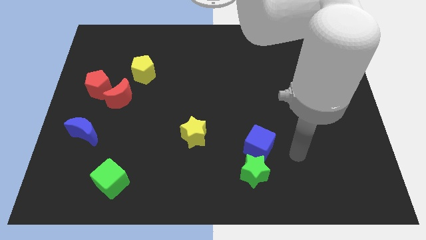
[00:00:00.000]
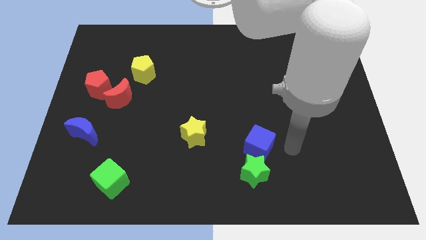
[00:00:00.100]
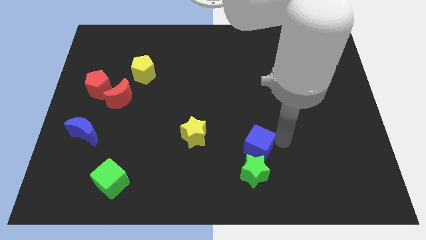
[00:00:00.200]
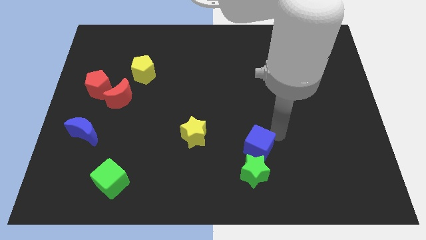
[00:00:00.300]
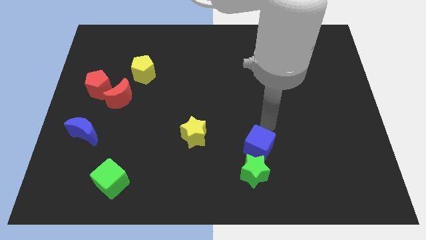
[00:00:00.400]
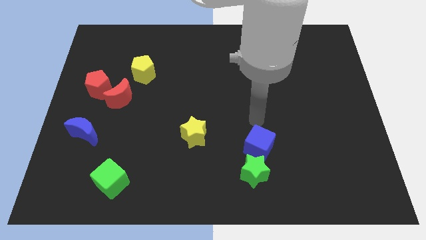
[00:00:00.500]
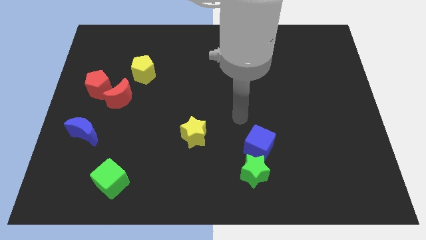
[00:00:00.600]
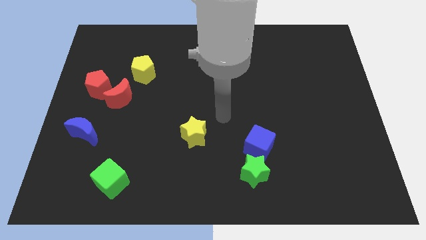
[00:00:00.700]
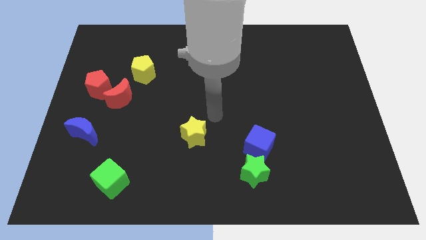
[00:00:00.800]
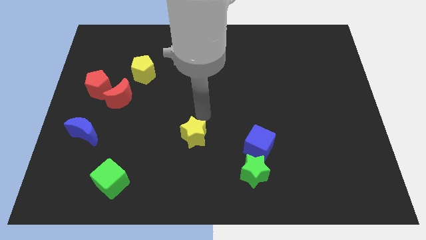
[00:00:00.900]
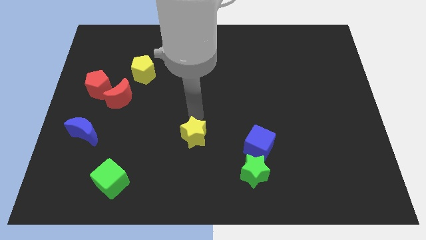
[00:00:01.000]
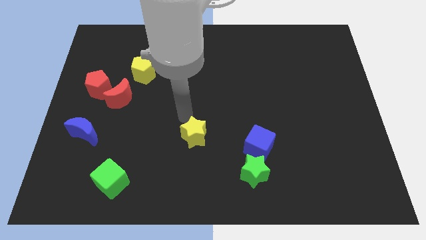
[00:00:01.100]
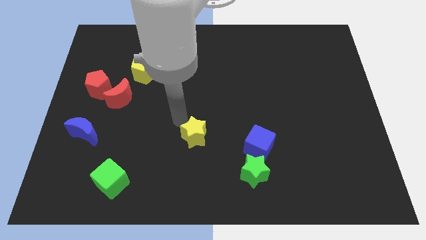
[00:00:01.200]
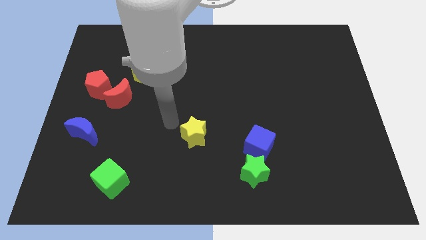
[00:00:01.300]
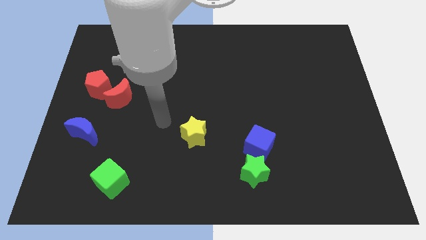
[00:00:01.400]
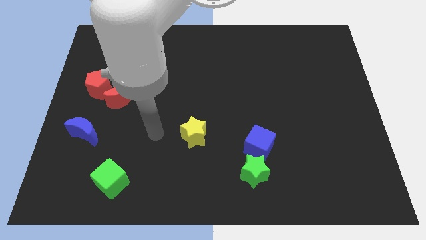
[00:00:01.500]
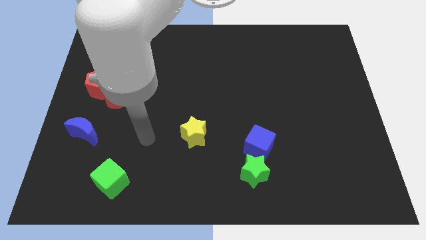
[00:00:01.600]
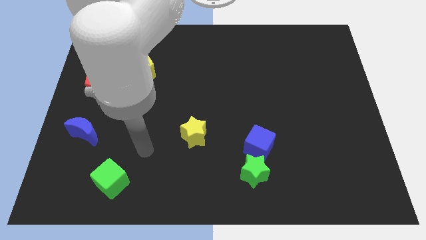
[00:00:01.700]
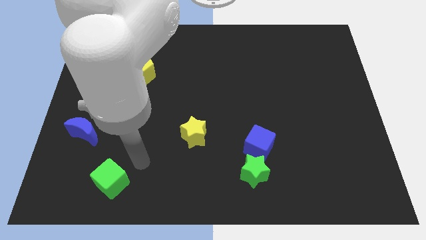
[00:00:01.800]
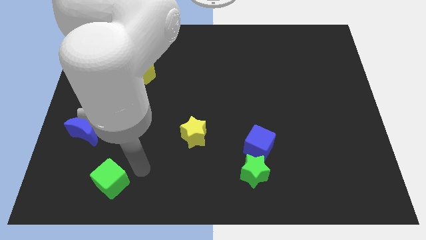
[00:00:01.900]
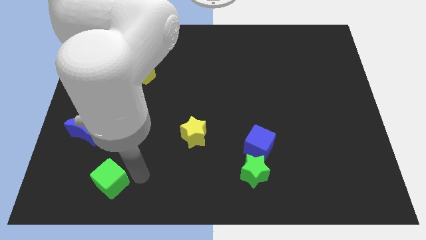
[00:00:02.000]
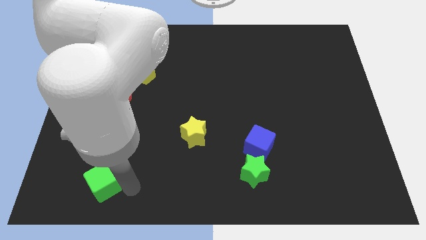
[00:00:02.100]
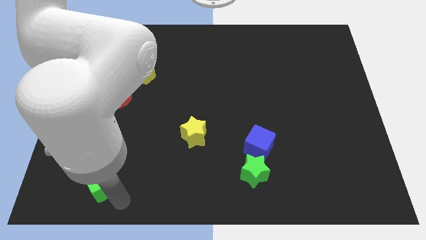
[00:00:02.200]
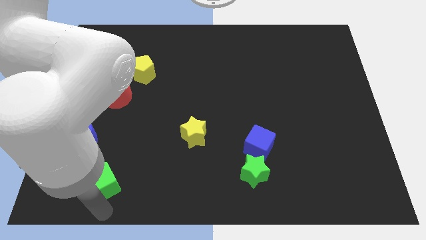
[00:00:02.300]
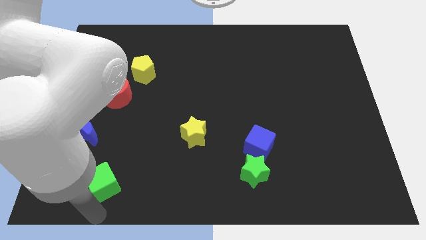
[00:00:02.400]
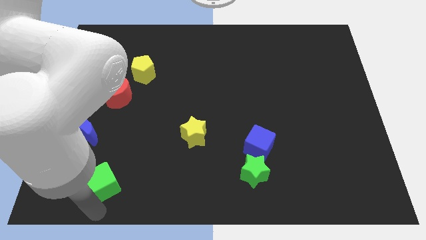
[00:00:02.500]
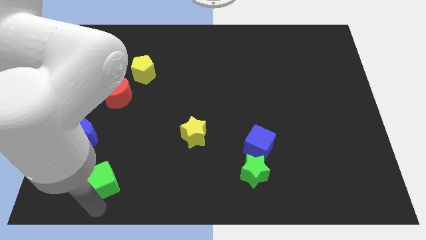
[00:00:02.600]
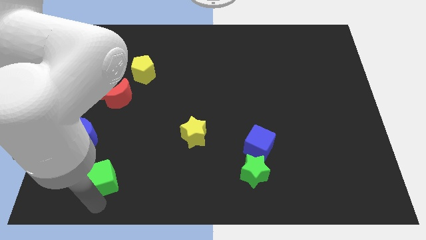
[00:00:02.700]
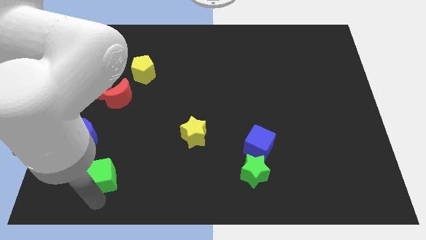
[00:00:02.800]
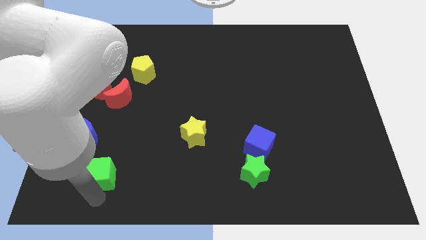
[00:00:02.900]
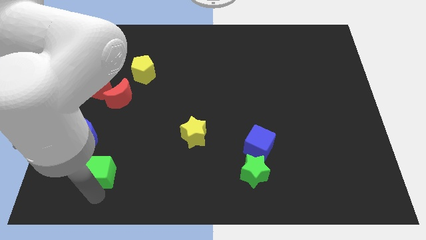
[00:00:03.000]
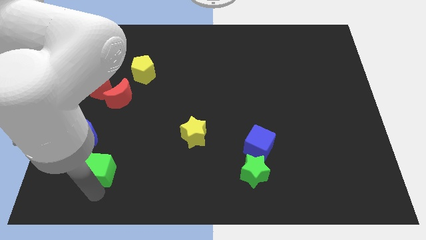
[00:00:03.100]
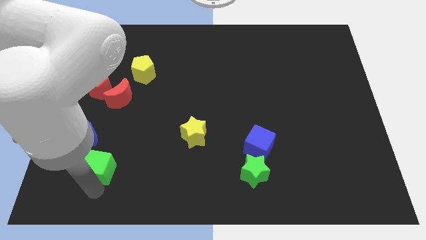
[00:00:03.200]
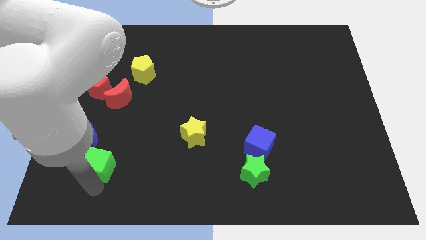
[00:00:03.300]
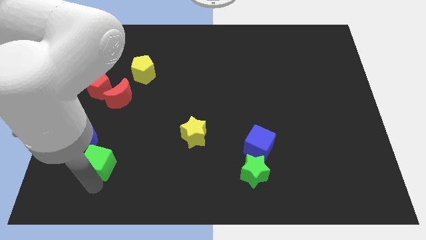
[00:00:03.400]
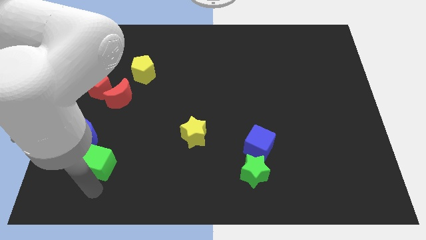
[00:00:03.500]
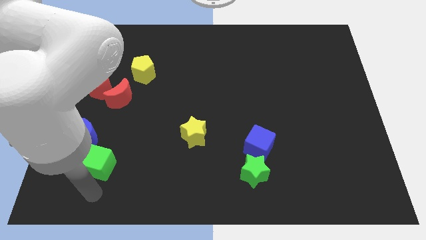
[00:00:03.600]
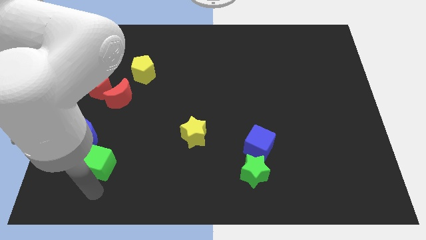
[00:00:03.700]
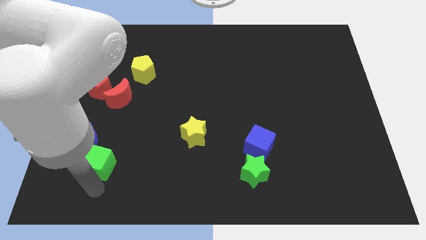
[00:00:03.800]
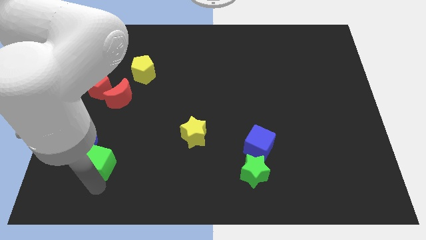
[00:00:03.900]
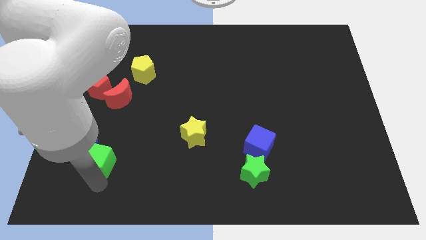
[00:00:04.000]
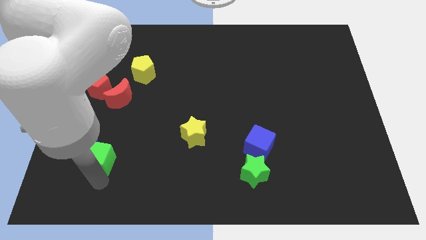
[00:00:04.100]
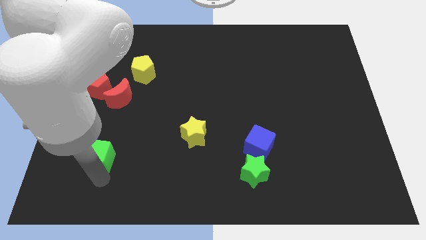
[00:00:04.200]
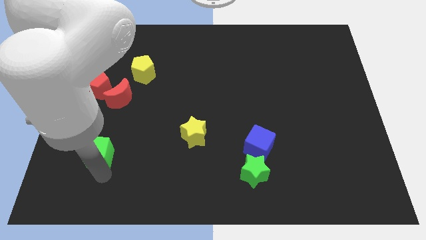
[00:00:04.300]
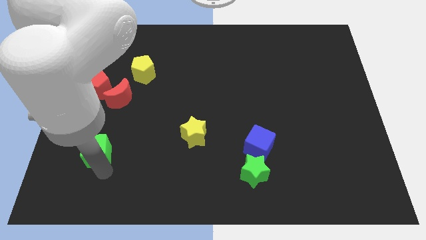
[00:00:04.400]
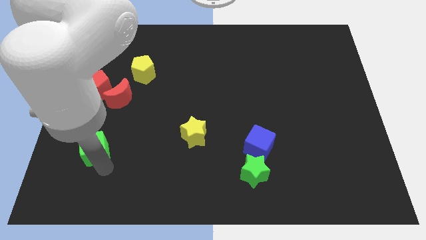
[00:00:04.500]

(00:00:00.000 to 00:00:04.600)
move the green cube next to the blue moon

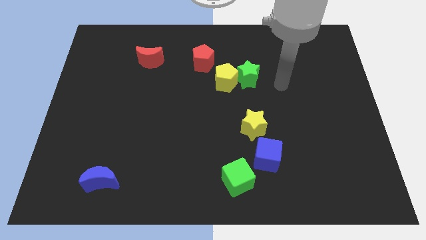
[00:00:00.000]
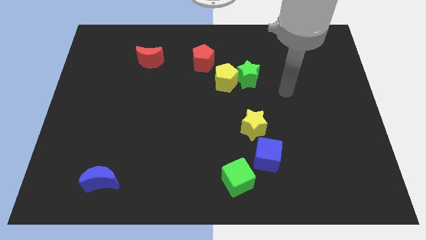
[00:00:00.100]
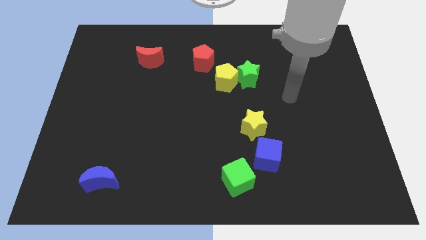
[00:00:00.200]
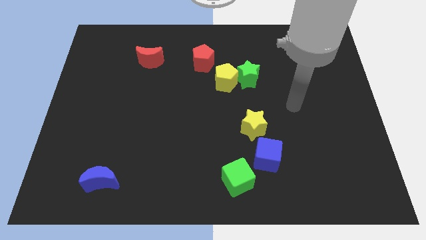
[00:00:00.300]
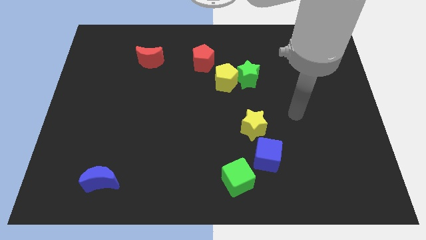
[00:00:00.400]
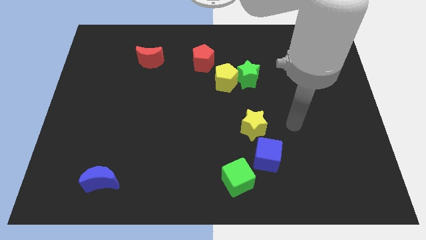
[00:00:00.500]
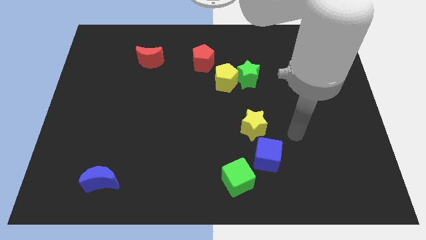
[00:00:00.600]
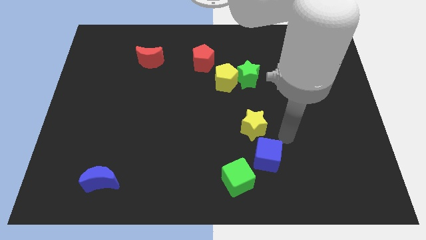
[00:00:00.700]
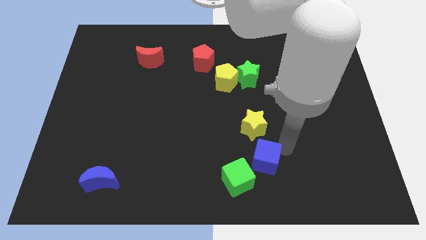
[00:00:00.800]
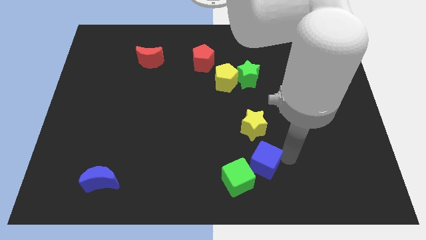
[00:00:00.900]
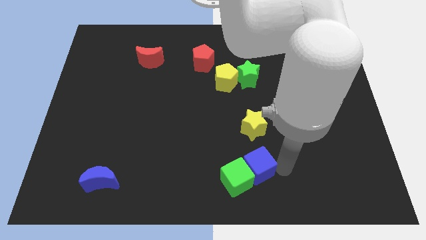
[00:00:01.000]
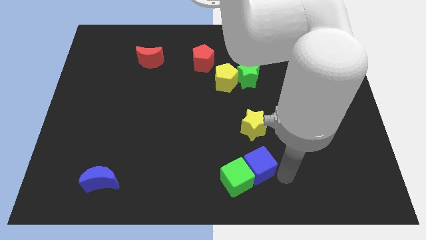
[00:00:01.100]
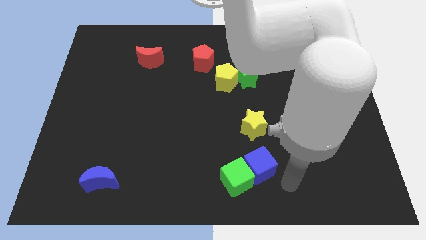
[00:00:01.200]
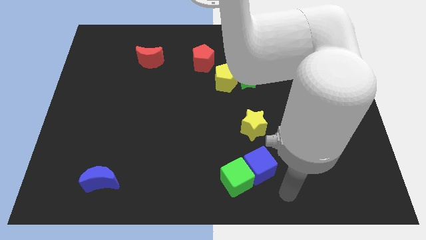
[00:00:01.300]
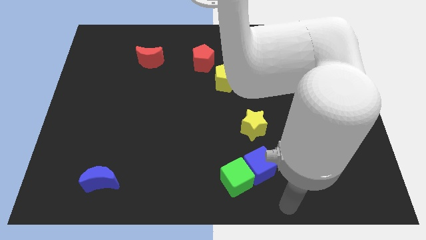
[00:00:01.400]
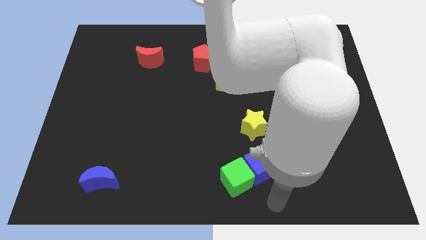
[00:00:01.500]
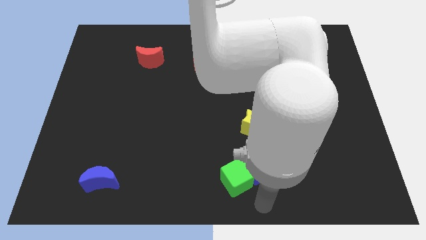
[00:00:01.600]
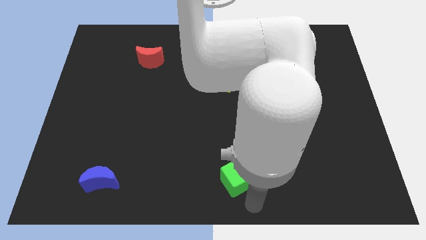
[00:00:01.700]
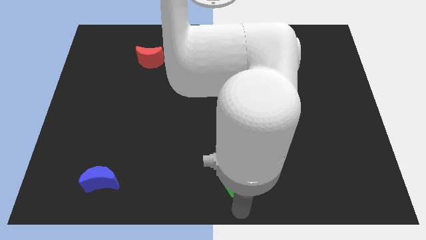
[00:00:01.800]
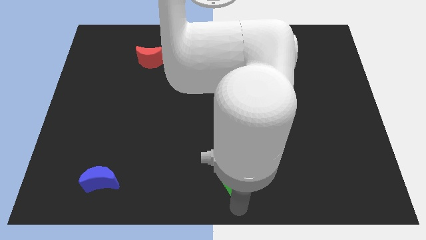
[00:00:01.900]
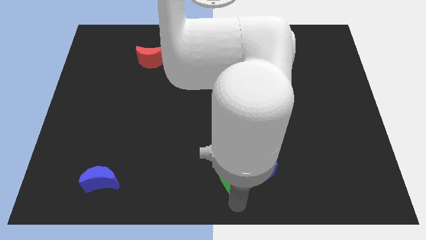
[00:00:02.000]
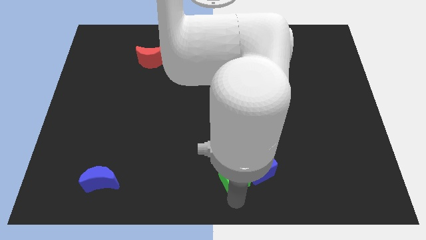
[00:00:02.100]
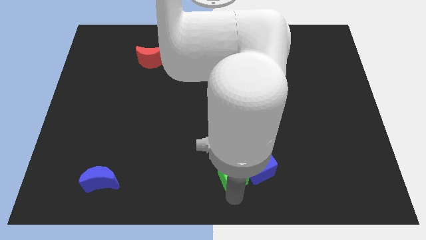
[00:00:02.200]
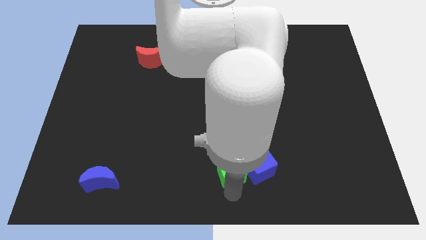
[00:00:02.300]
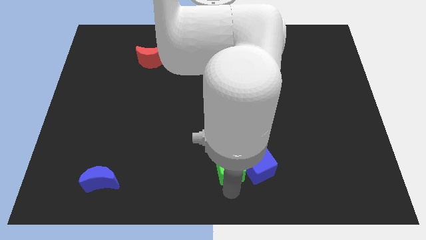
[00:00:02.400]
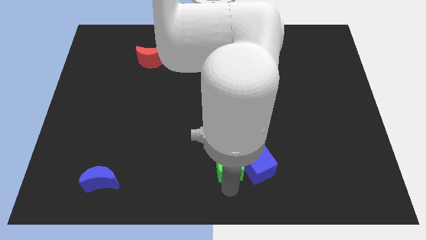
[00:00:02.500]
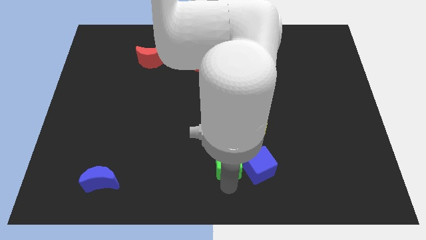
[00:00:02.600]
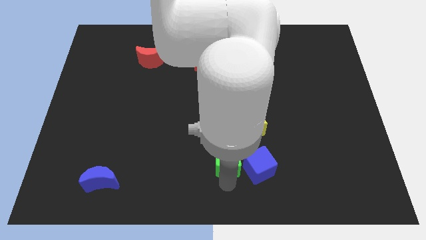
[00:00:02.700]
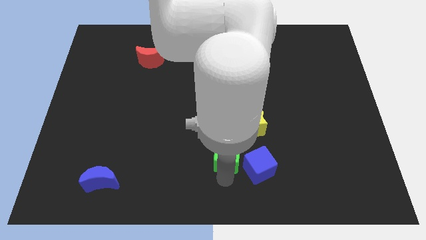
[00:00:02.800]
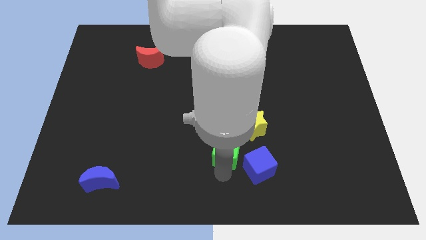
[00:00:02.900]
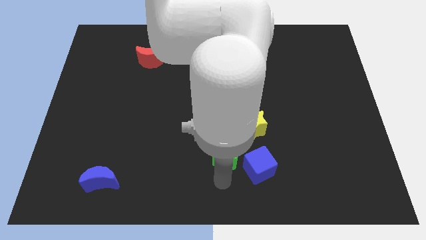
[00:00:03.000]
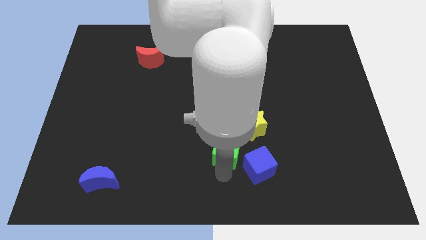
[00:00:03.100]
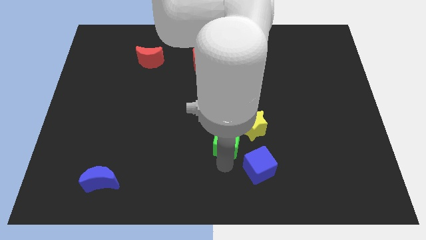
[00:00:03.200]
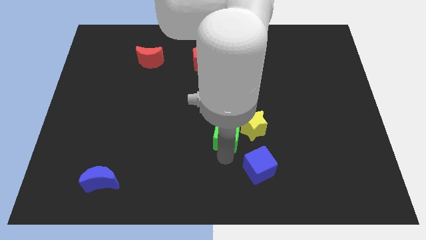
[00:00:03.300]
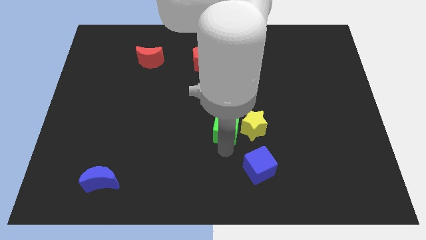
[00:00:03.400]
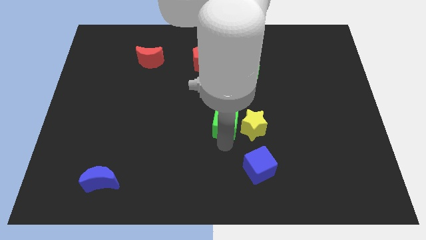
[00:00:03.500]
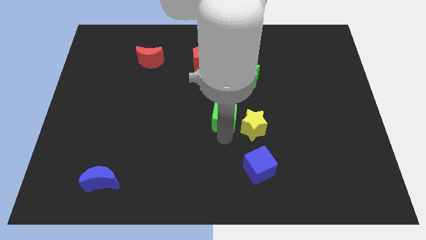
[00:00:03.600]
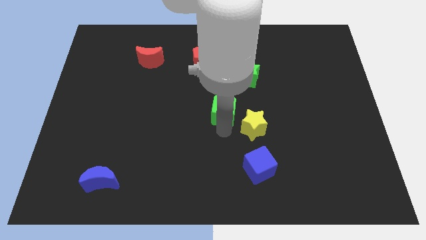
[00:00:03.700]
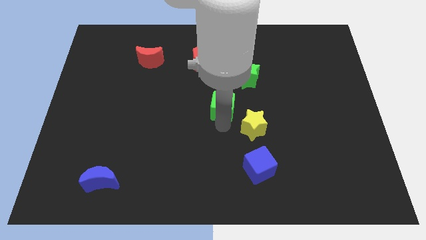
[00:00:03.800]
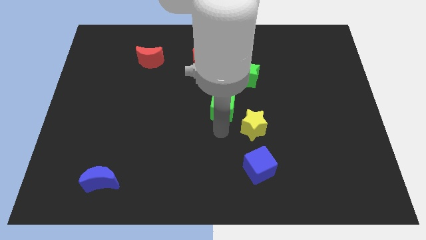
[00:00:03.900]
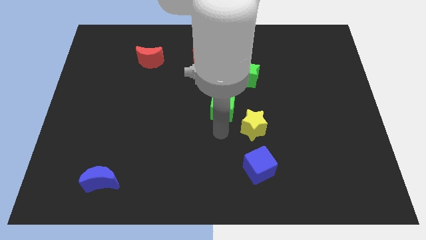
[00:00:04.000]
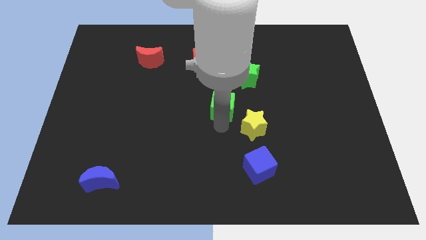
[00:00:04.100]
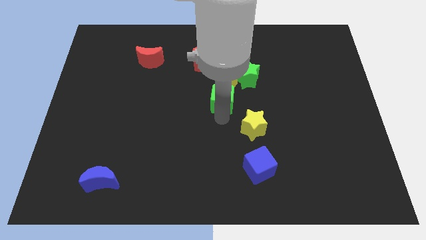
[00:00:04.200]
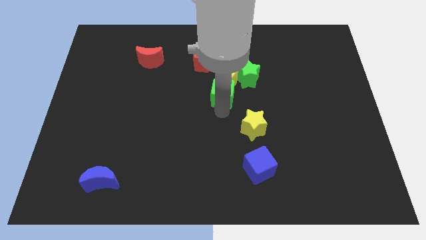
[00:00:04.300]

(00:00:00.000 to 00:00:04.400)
move the green cube to the yellow pentagon
